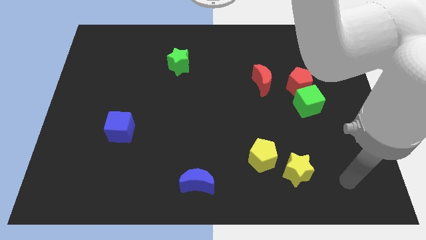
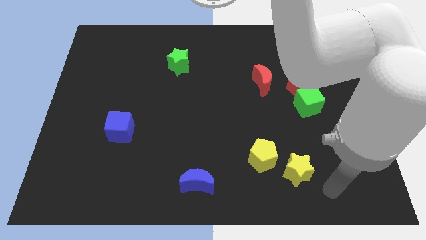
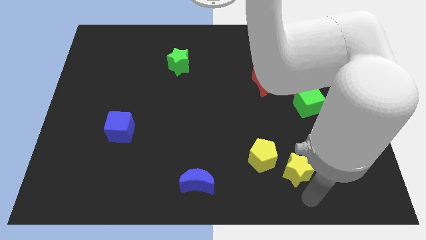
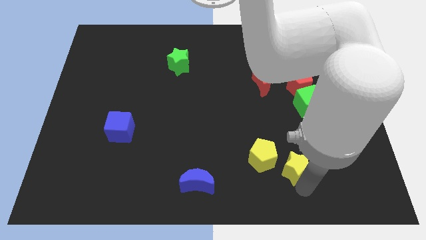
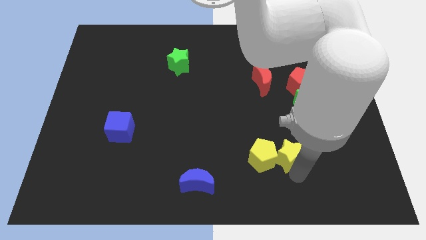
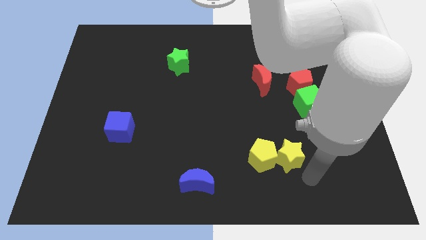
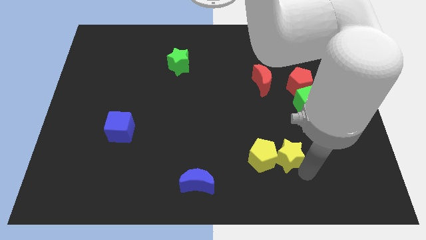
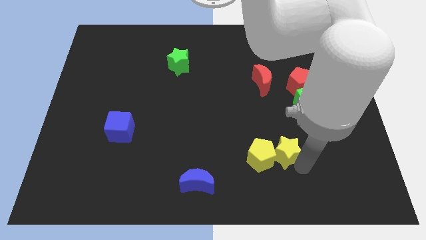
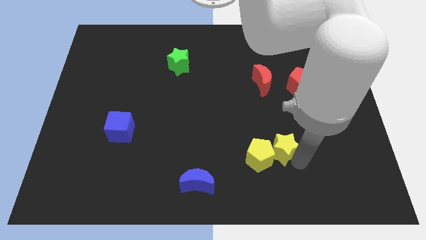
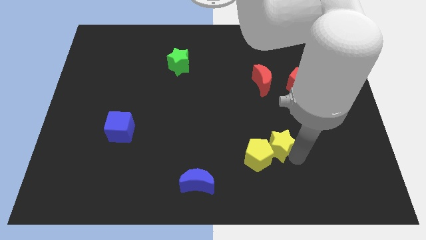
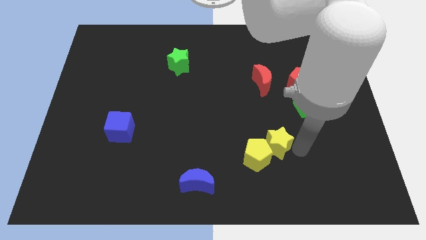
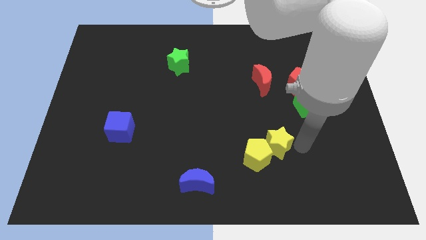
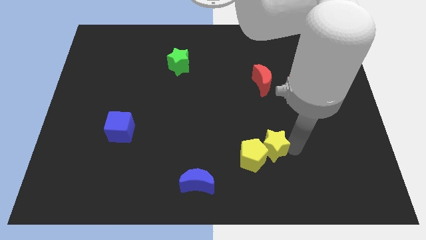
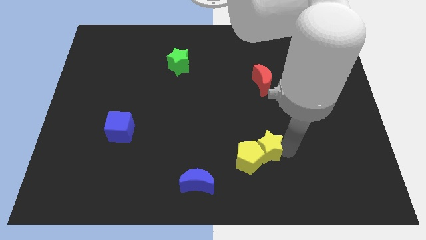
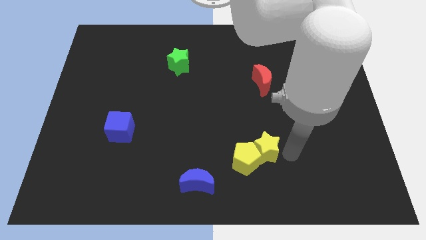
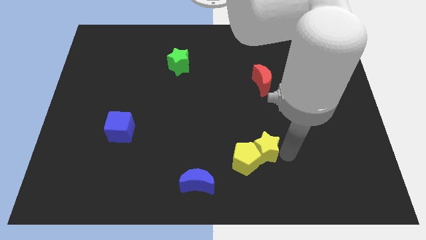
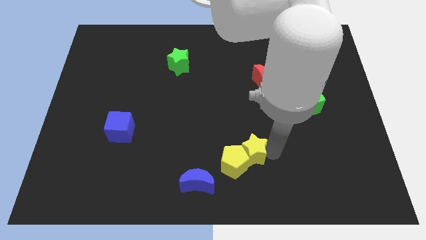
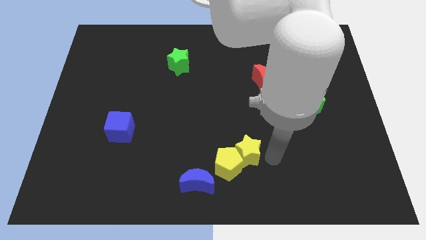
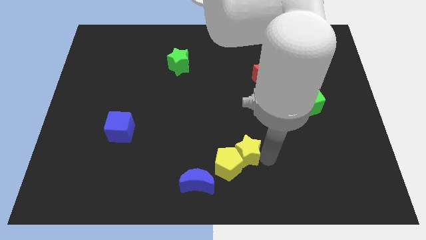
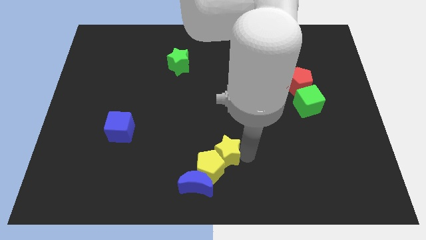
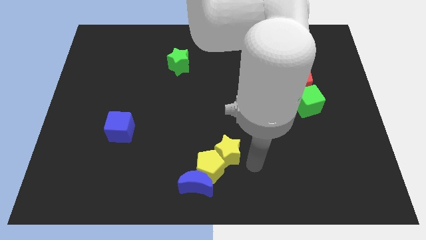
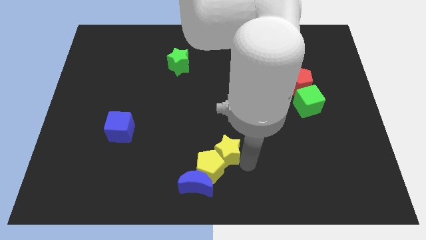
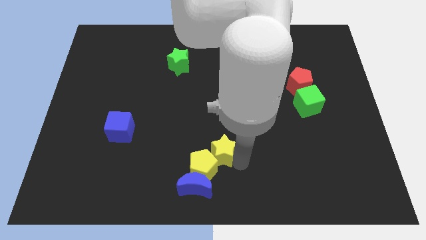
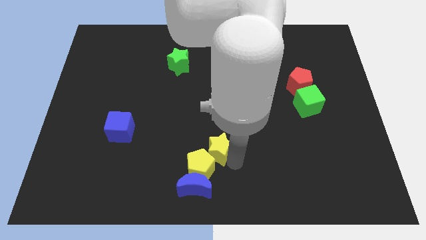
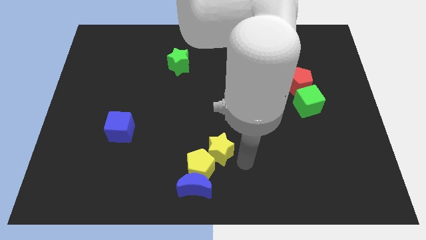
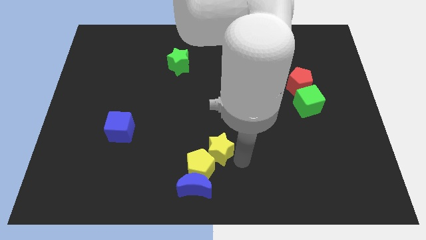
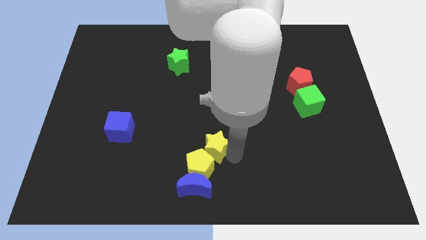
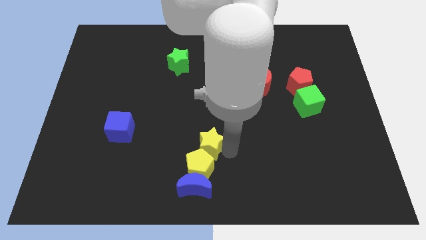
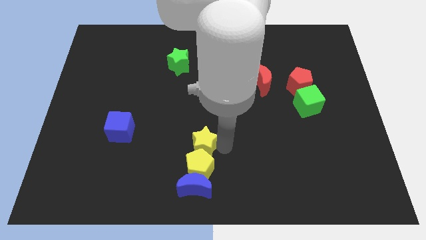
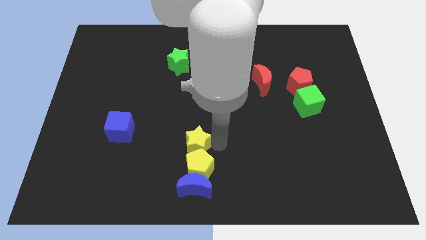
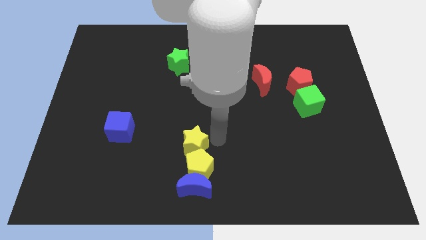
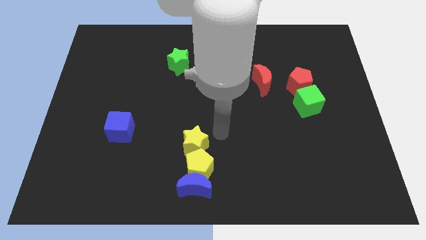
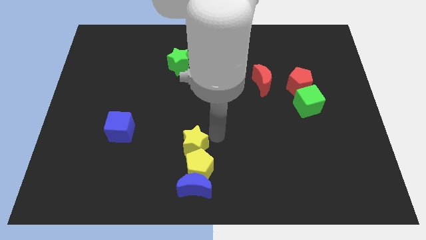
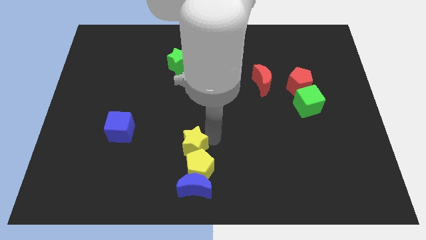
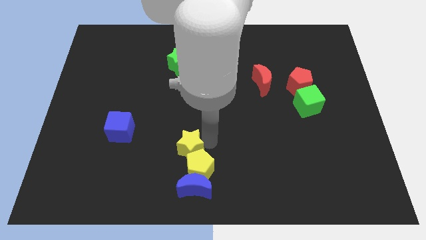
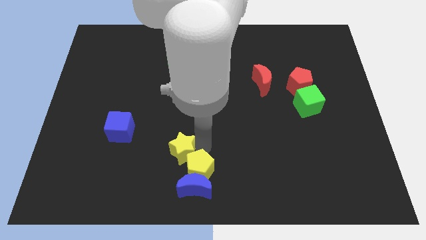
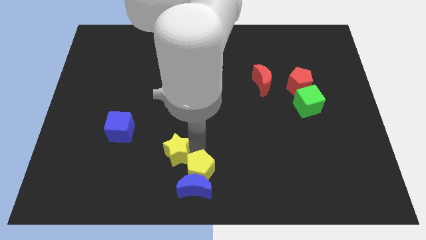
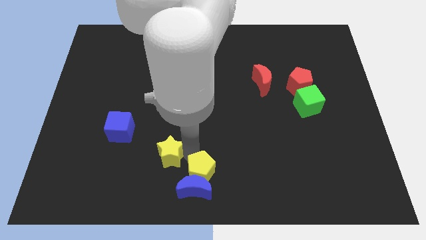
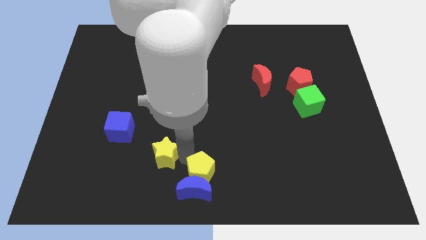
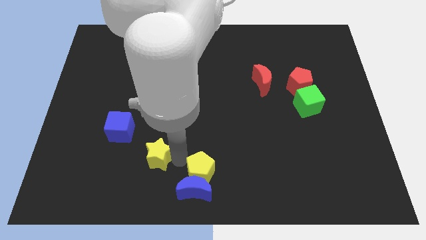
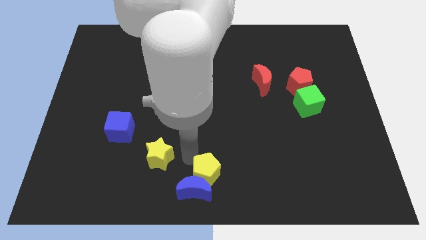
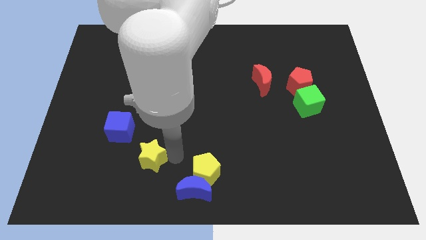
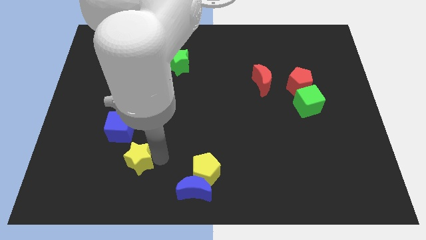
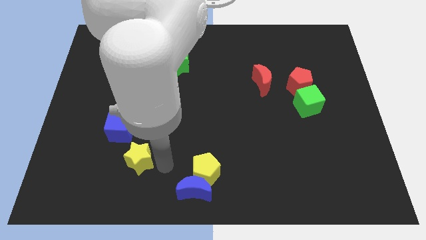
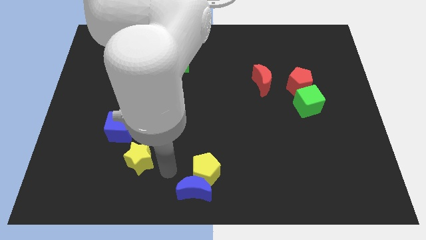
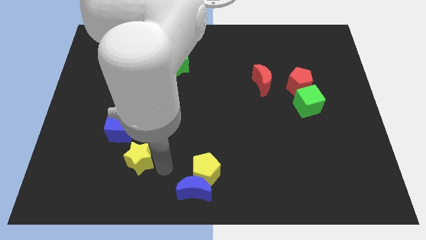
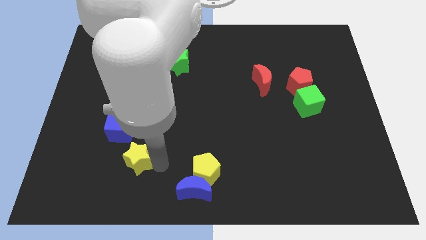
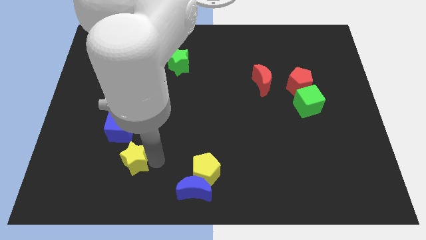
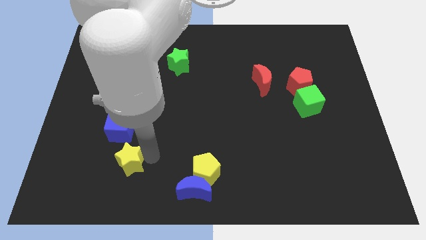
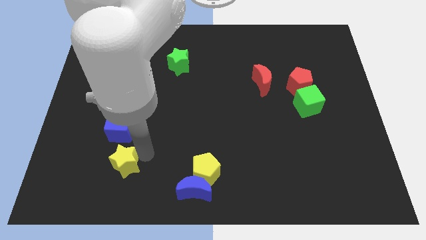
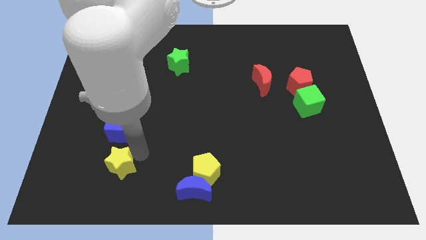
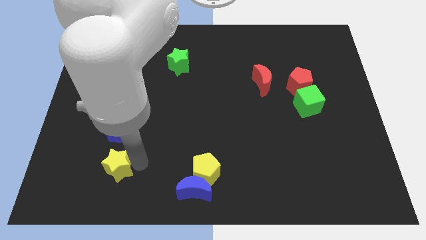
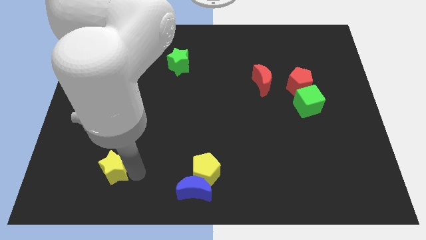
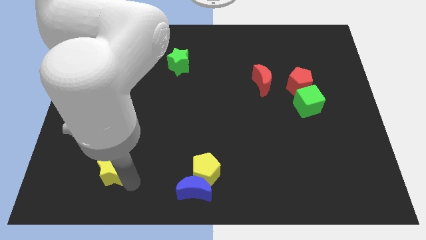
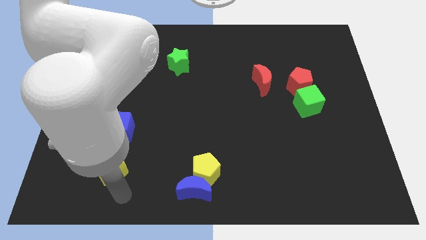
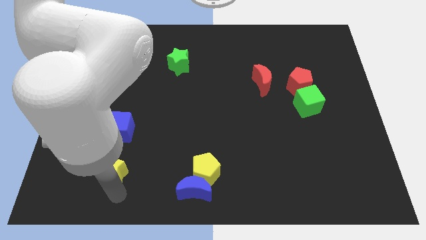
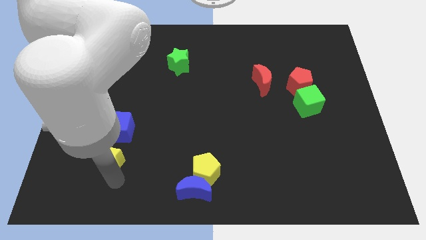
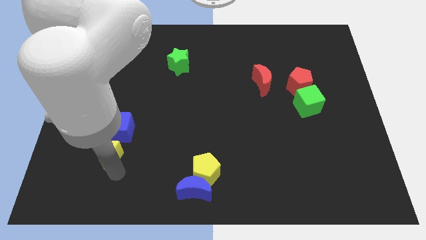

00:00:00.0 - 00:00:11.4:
move the yellow star diagonally down and to the left of the blue cube

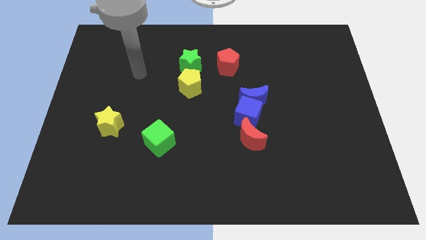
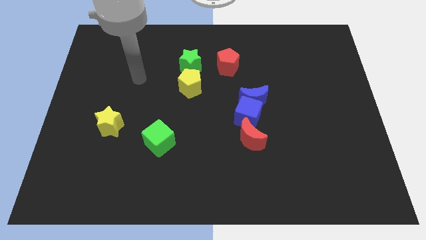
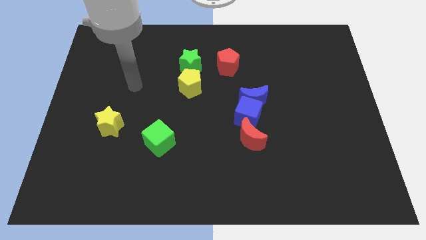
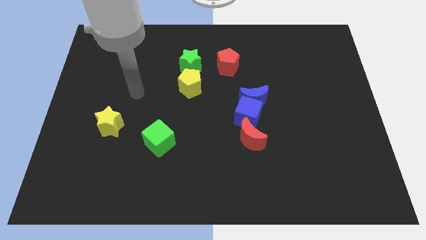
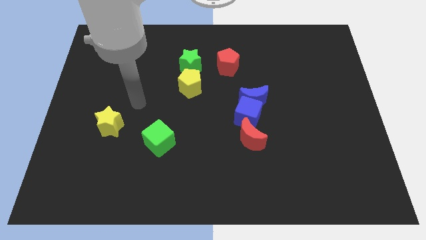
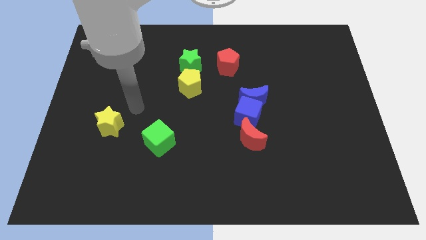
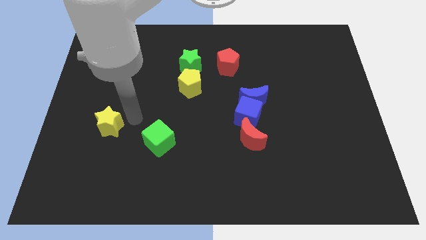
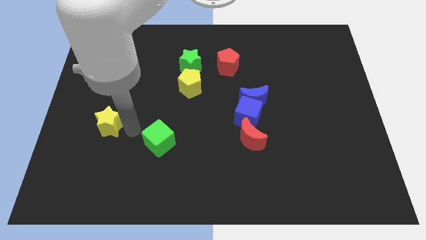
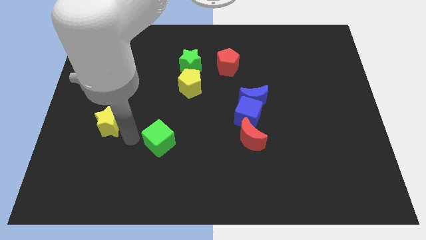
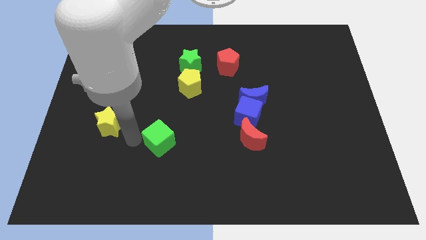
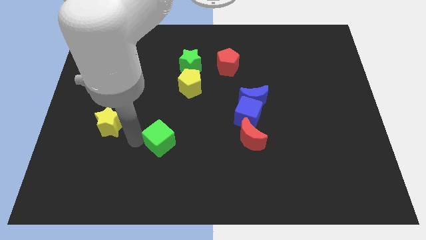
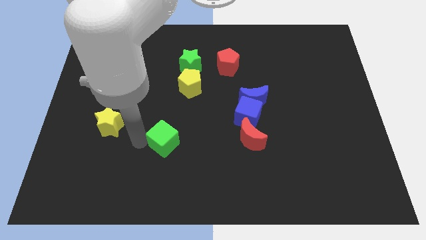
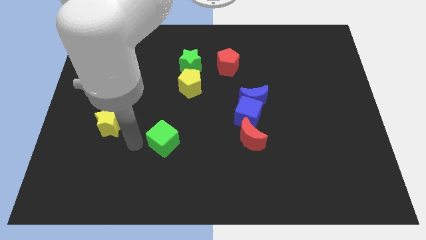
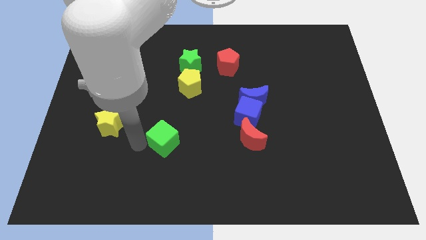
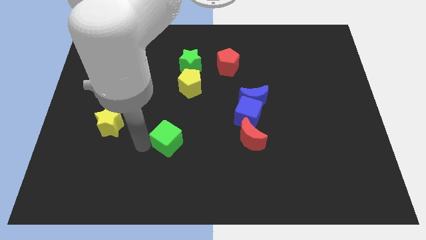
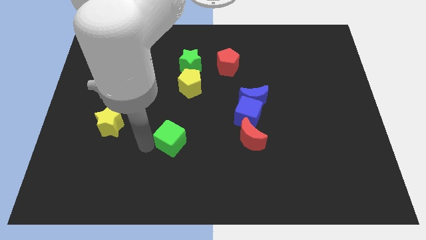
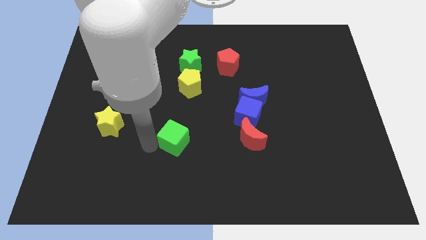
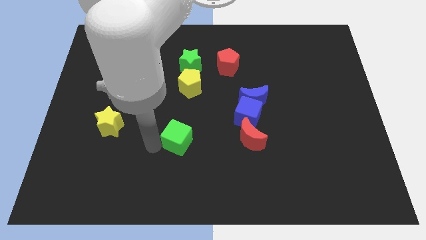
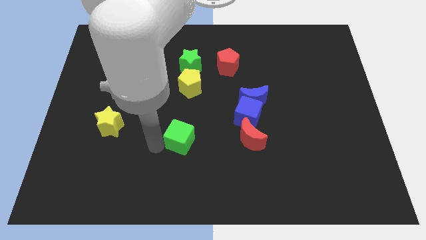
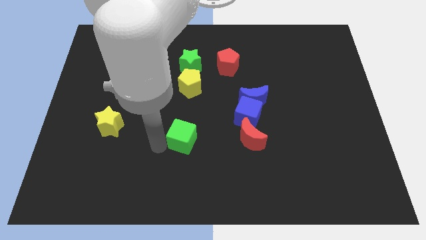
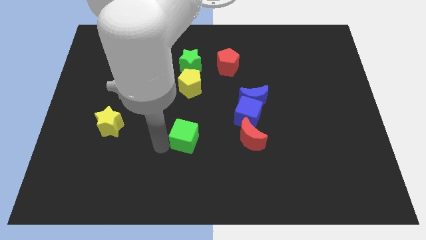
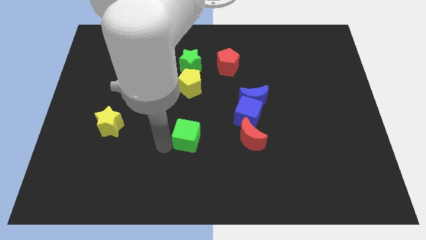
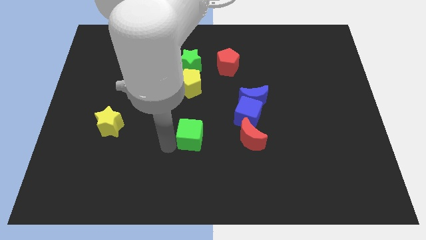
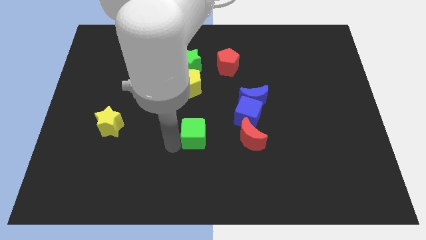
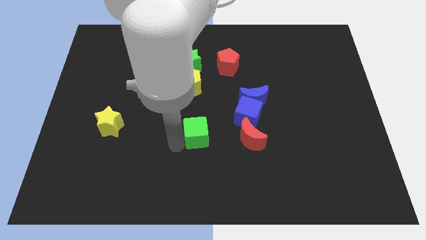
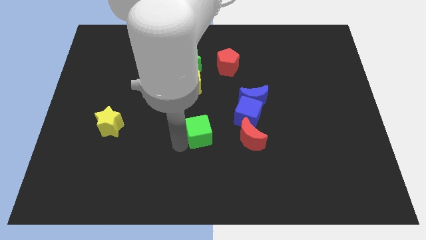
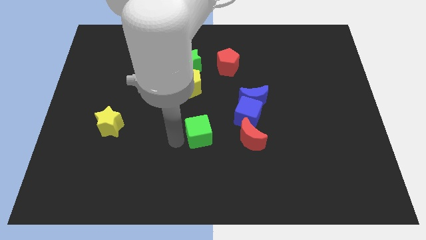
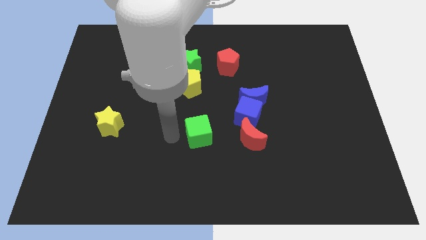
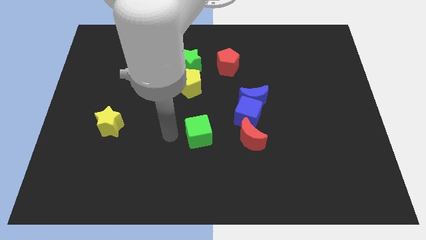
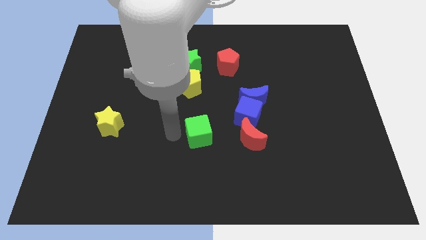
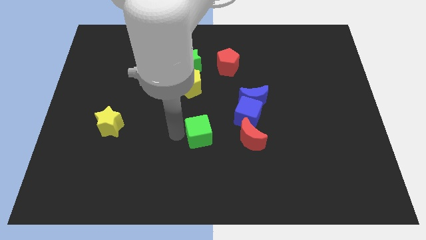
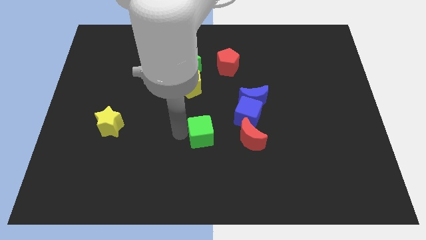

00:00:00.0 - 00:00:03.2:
put the green cube diagonally down and to the left of the blue cube
